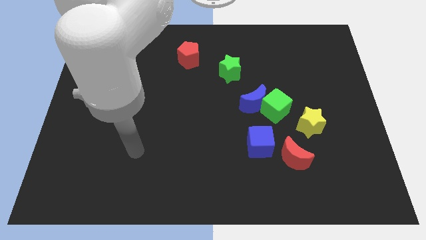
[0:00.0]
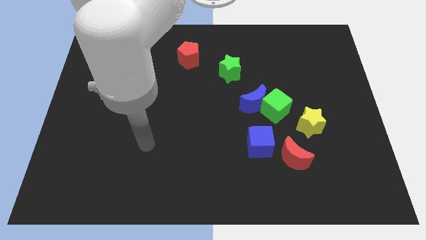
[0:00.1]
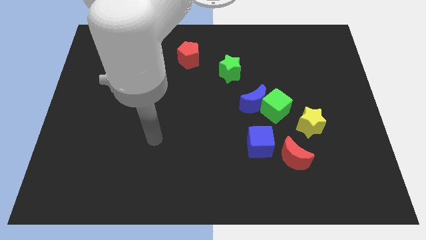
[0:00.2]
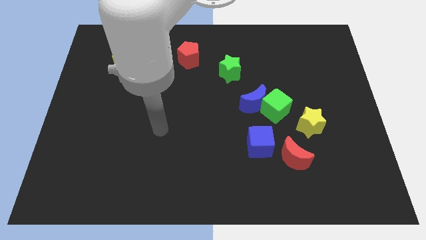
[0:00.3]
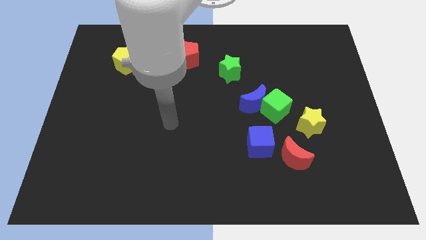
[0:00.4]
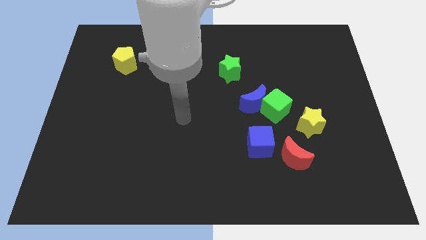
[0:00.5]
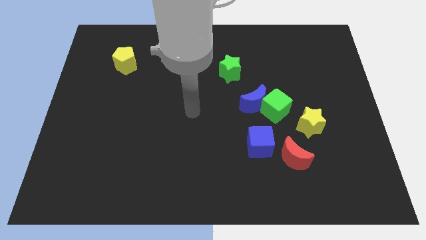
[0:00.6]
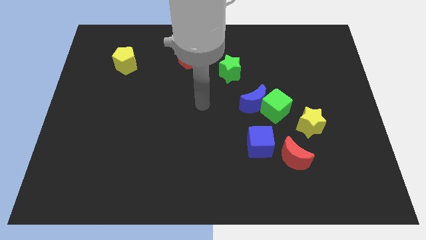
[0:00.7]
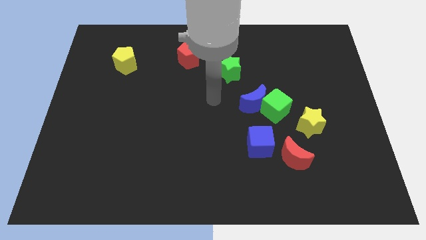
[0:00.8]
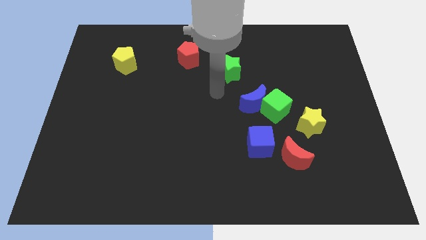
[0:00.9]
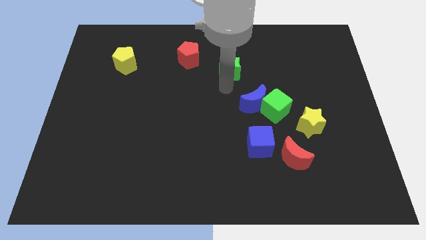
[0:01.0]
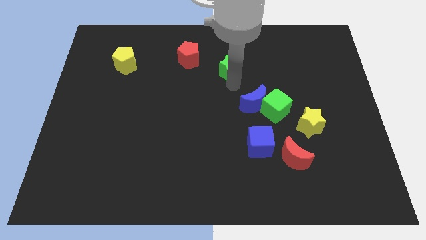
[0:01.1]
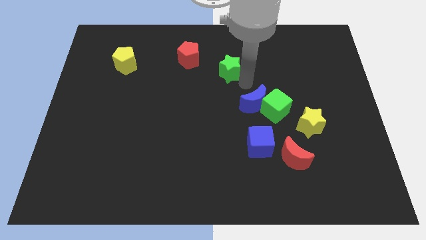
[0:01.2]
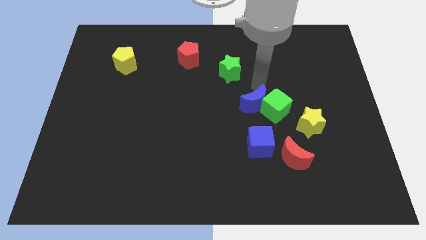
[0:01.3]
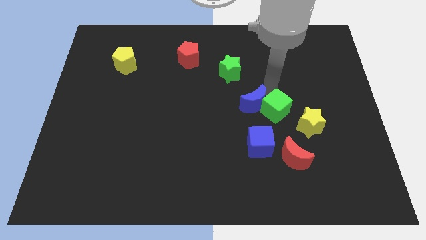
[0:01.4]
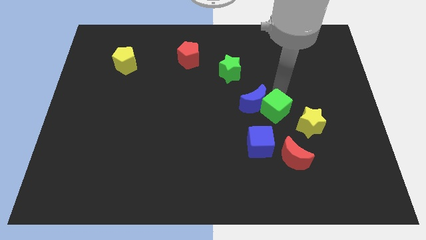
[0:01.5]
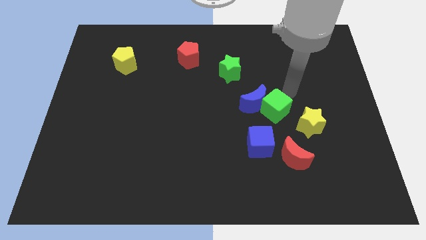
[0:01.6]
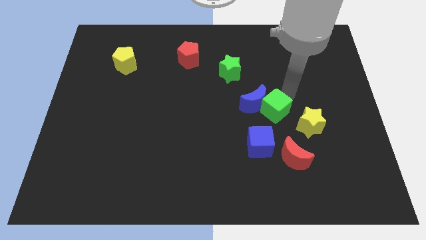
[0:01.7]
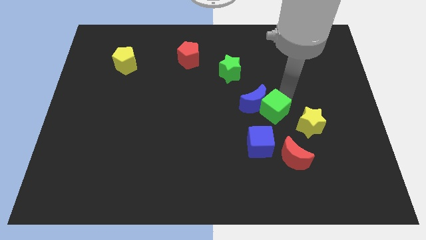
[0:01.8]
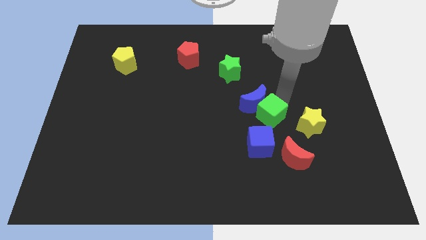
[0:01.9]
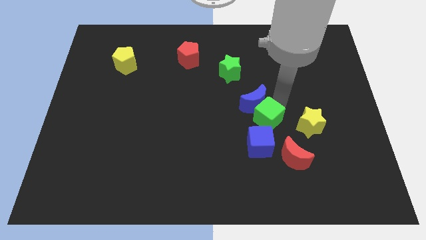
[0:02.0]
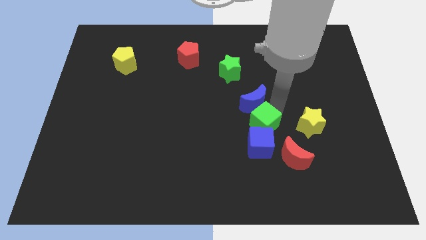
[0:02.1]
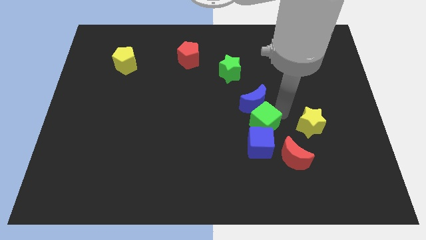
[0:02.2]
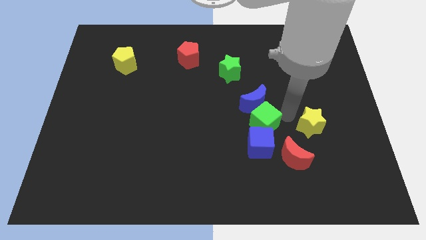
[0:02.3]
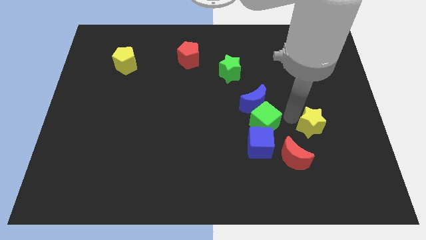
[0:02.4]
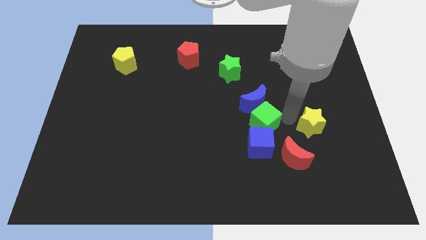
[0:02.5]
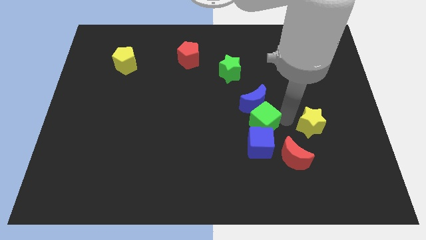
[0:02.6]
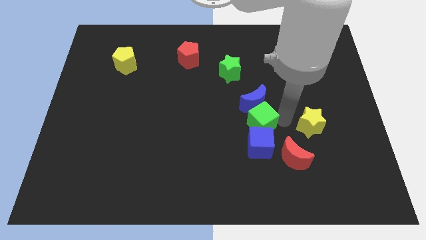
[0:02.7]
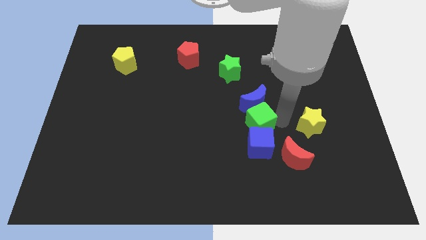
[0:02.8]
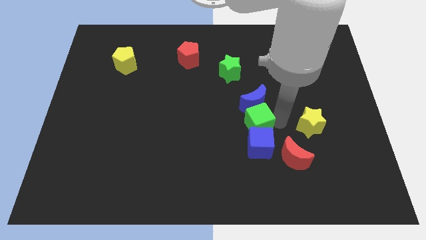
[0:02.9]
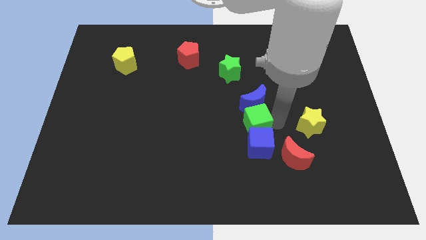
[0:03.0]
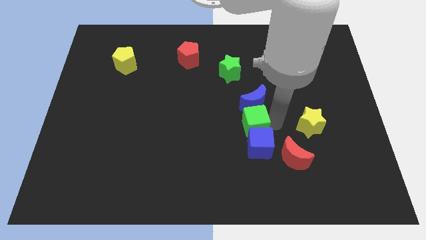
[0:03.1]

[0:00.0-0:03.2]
move the green cube somewhat down and to the left

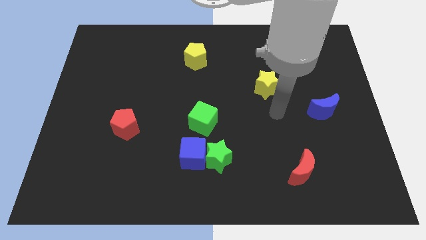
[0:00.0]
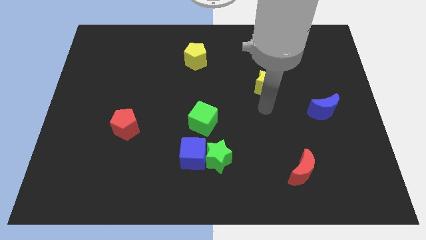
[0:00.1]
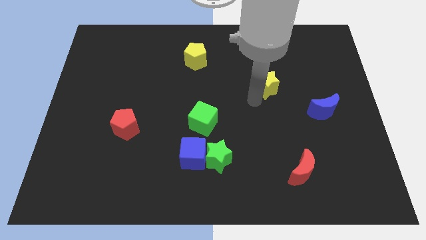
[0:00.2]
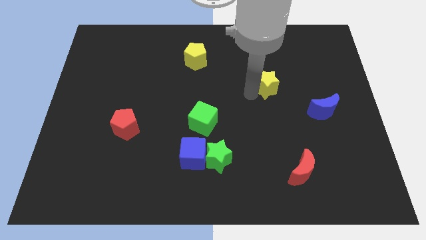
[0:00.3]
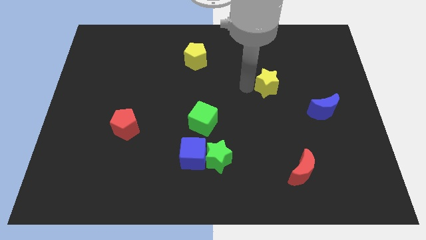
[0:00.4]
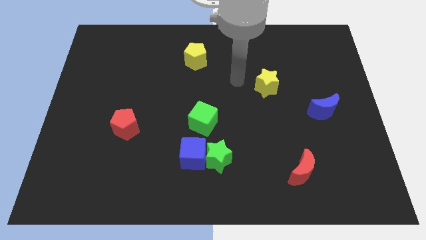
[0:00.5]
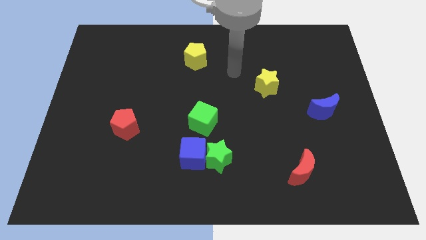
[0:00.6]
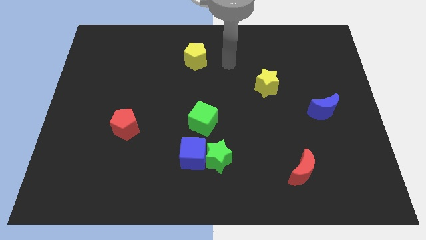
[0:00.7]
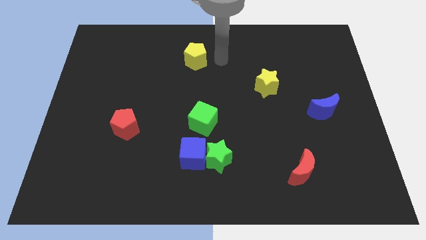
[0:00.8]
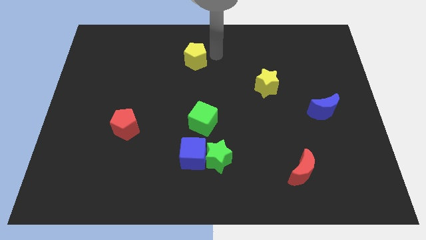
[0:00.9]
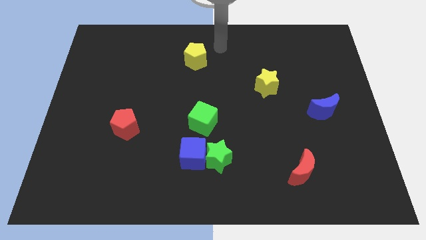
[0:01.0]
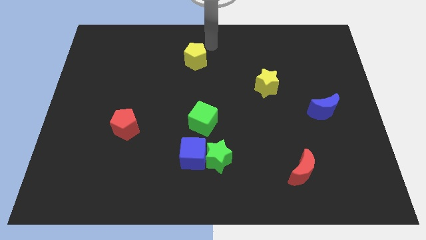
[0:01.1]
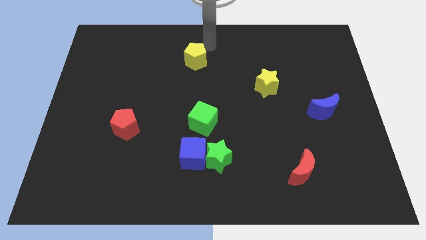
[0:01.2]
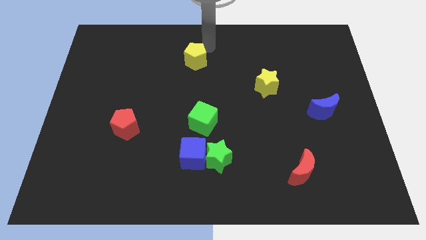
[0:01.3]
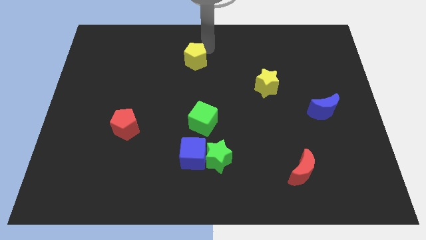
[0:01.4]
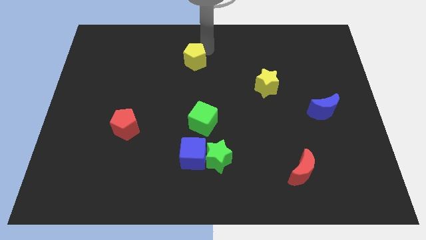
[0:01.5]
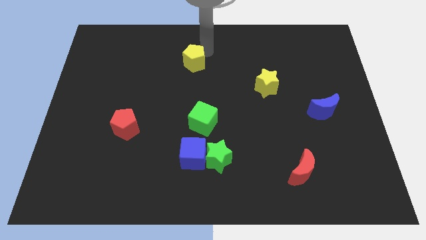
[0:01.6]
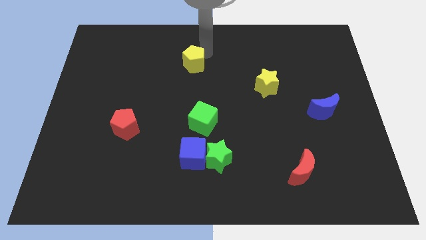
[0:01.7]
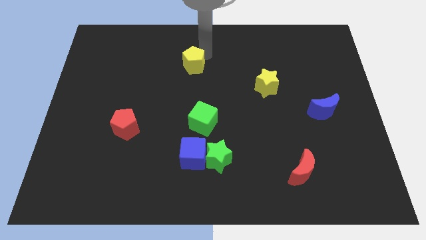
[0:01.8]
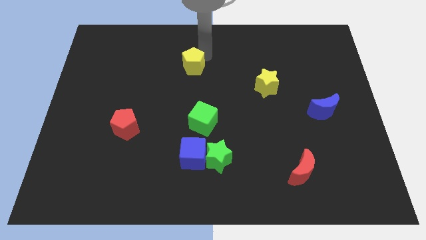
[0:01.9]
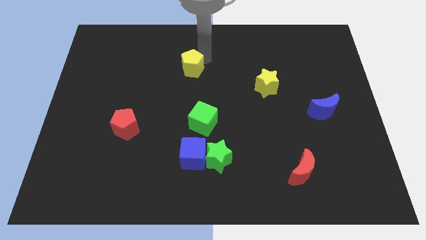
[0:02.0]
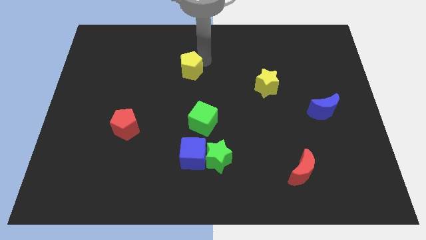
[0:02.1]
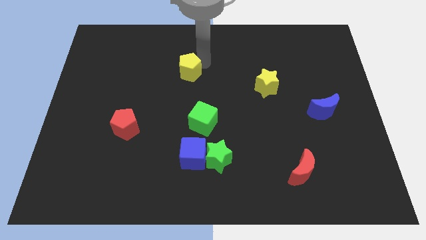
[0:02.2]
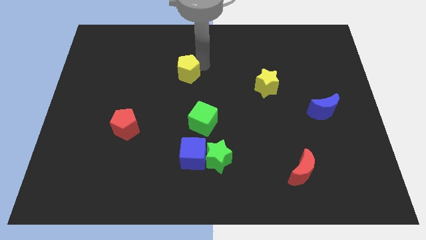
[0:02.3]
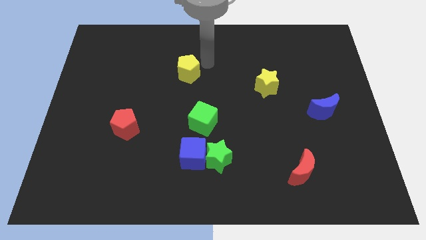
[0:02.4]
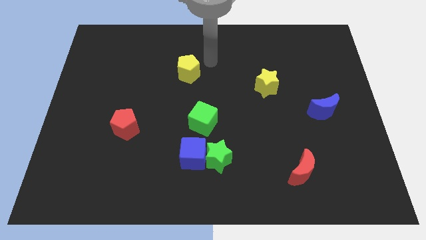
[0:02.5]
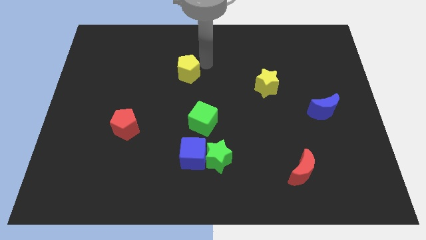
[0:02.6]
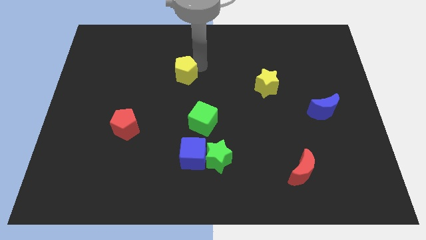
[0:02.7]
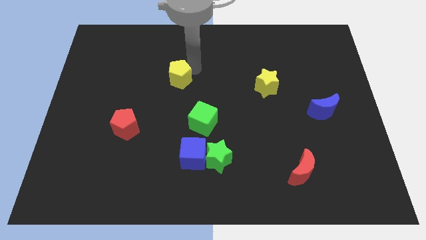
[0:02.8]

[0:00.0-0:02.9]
move the yellow pentagon down and left slightly

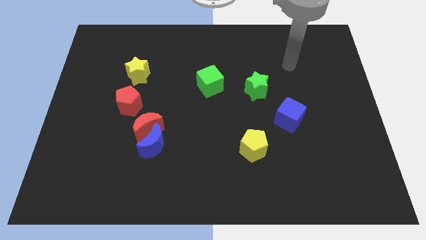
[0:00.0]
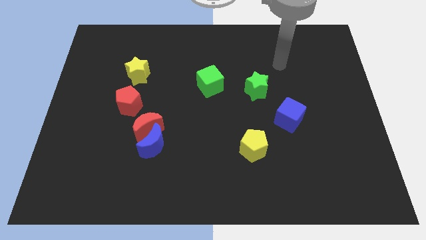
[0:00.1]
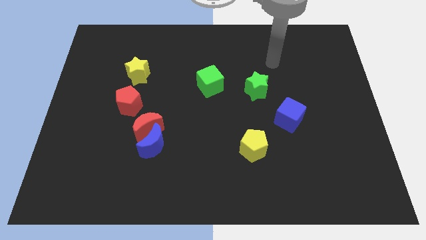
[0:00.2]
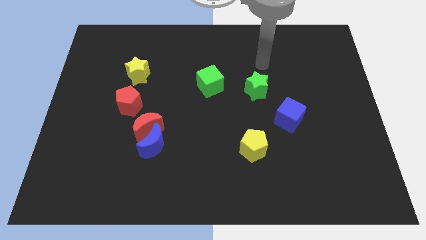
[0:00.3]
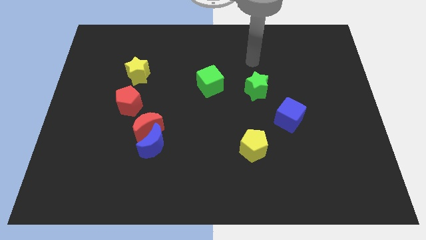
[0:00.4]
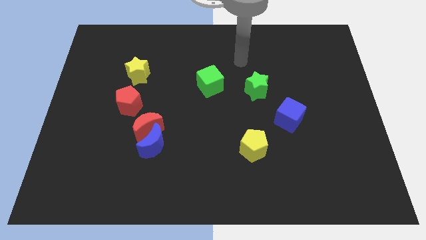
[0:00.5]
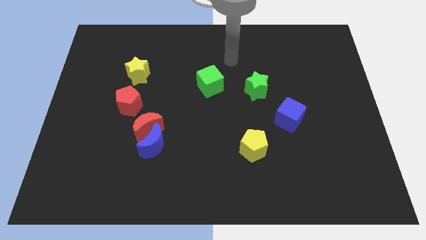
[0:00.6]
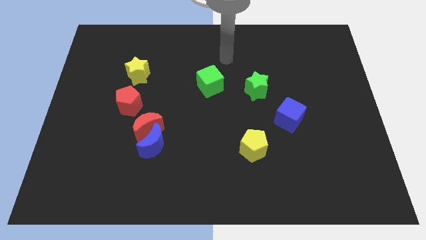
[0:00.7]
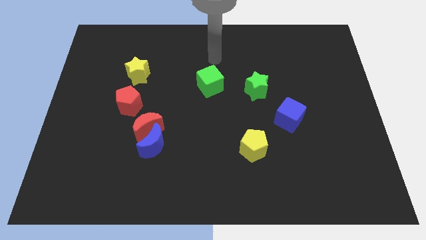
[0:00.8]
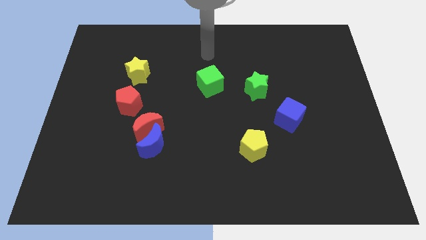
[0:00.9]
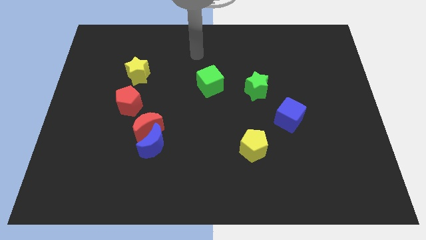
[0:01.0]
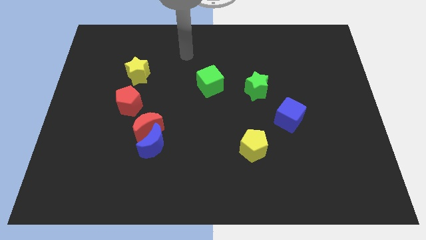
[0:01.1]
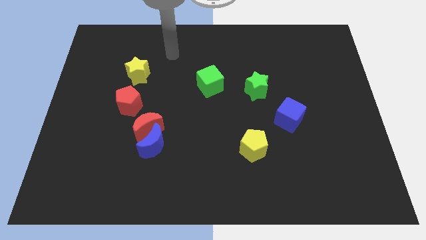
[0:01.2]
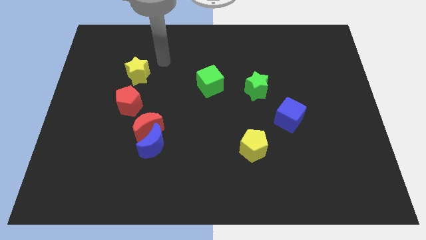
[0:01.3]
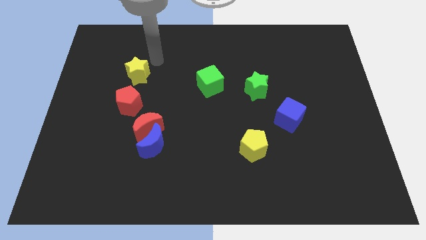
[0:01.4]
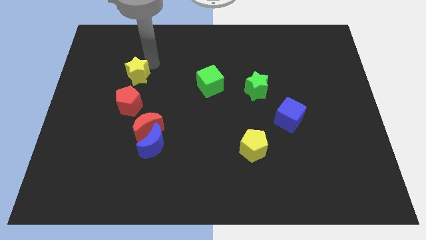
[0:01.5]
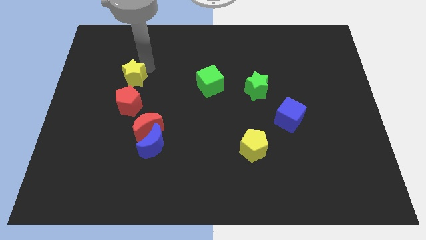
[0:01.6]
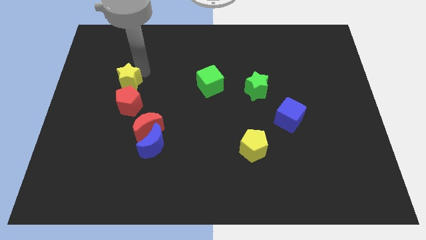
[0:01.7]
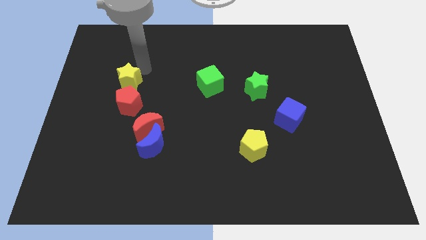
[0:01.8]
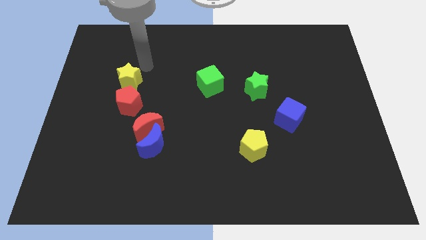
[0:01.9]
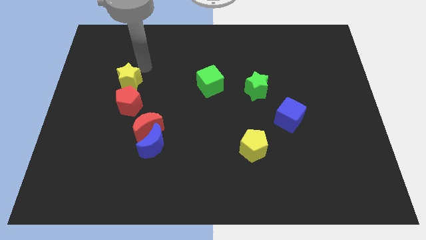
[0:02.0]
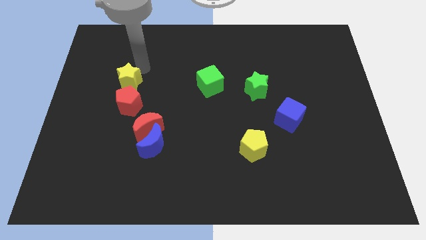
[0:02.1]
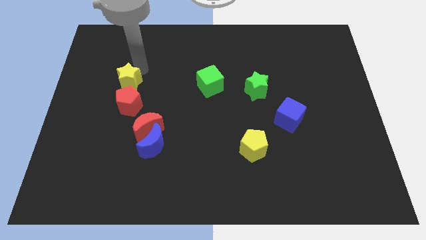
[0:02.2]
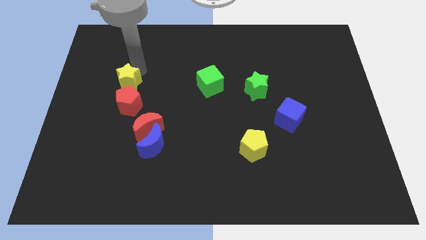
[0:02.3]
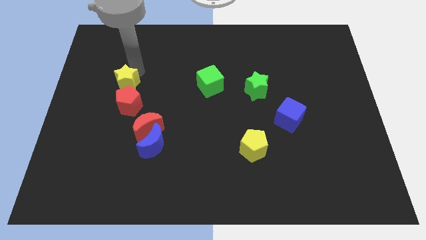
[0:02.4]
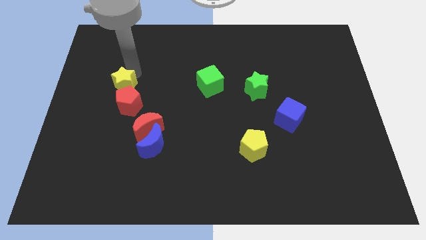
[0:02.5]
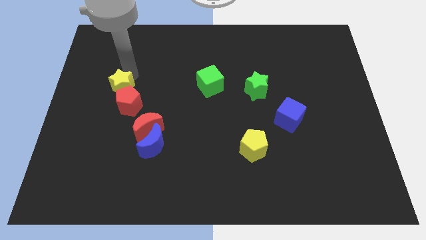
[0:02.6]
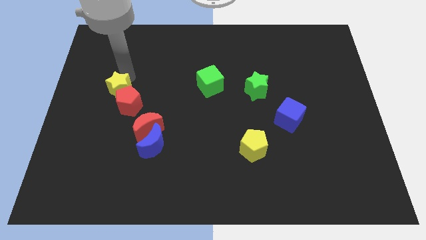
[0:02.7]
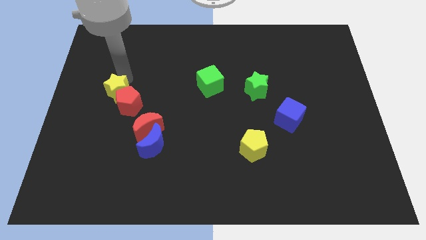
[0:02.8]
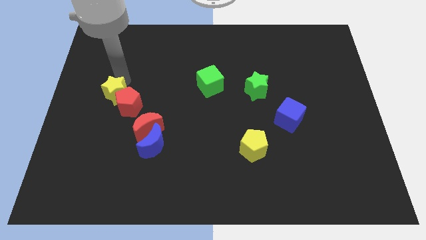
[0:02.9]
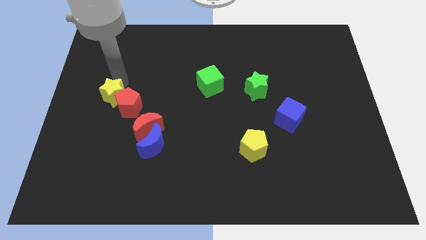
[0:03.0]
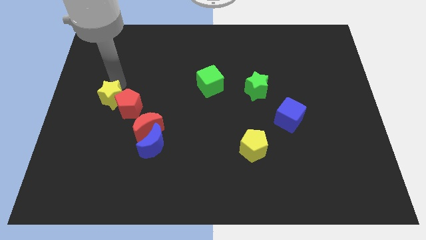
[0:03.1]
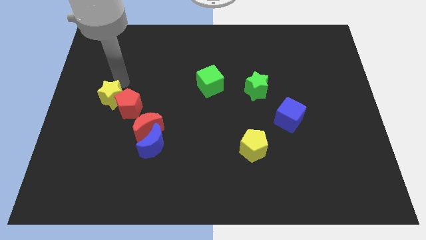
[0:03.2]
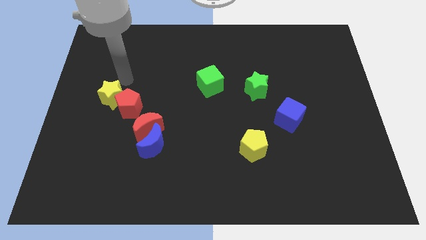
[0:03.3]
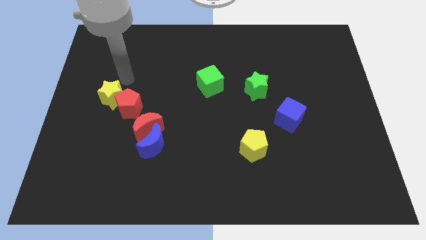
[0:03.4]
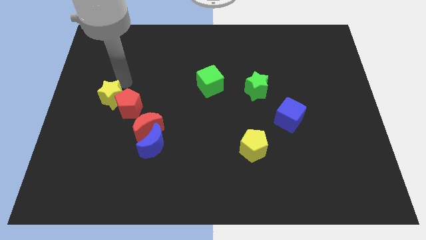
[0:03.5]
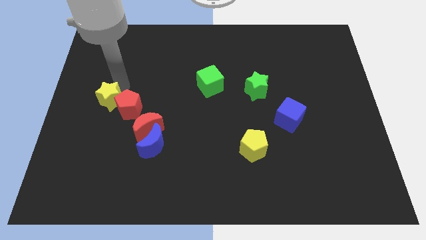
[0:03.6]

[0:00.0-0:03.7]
slightly move the yellow star down
